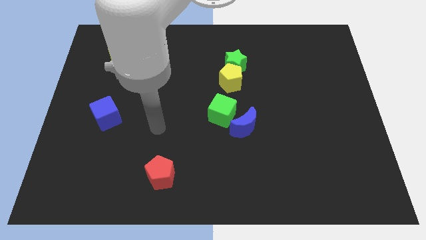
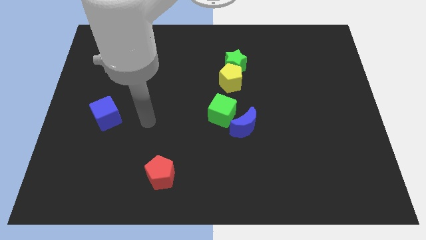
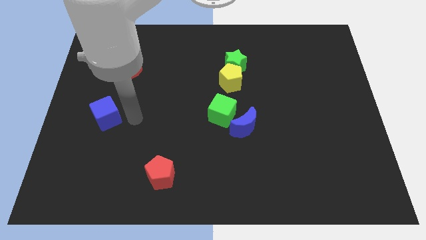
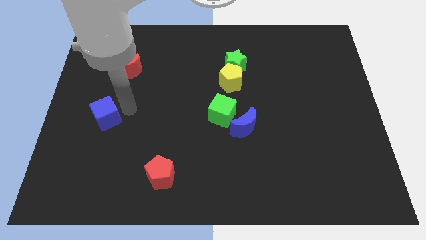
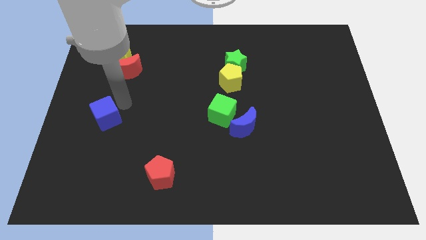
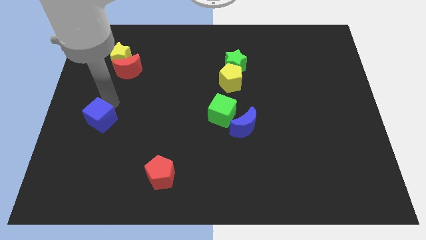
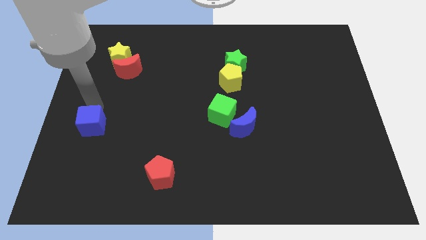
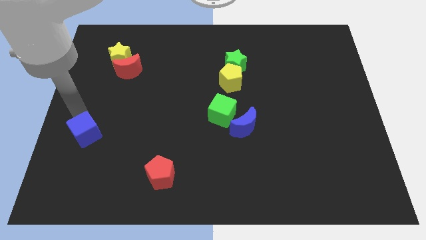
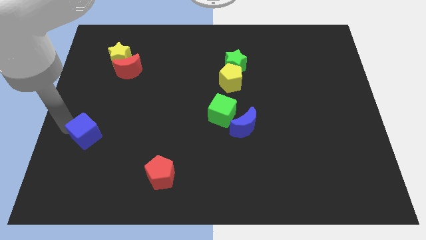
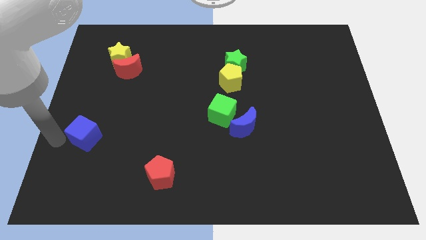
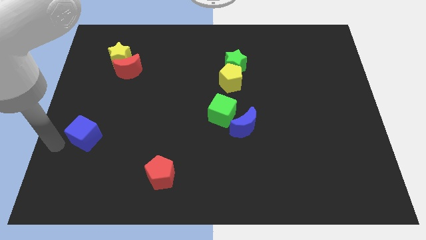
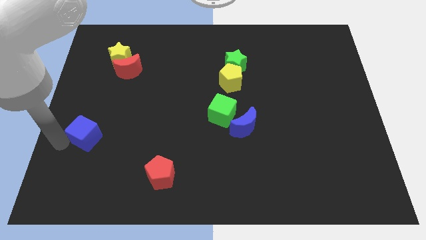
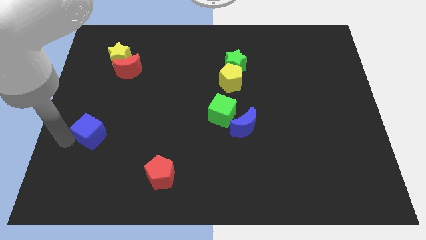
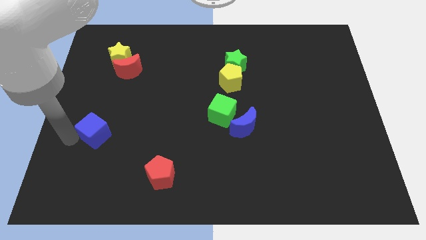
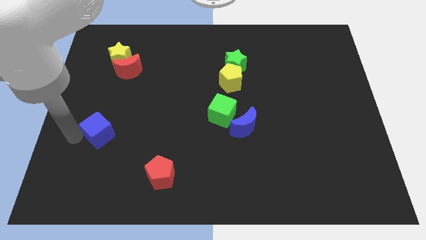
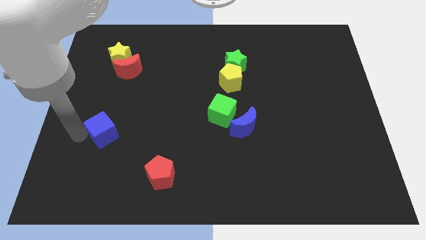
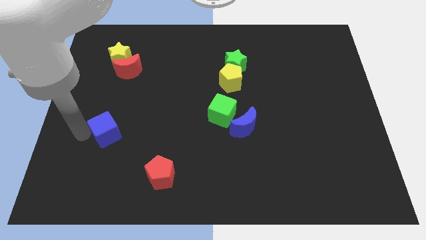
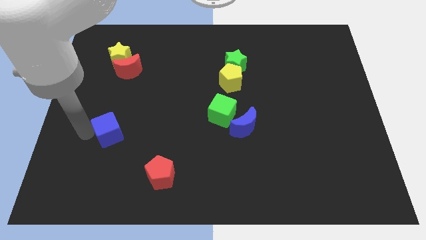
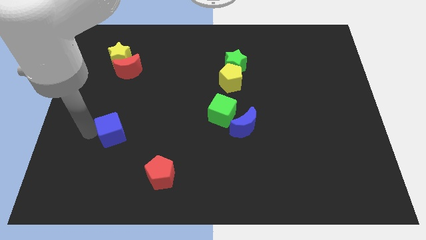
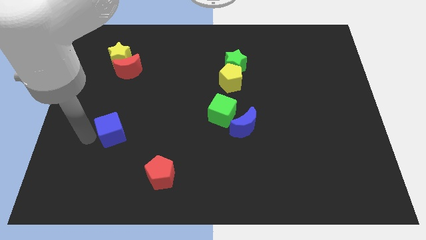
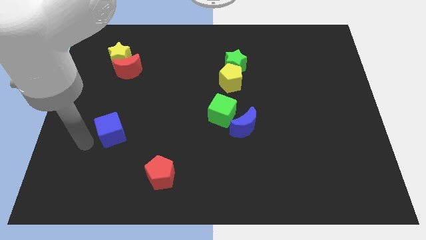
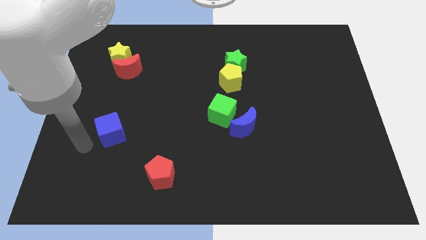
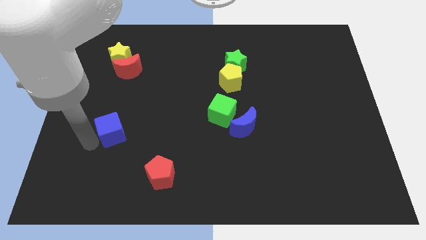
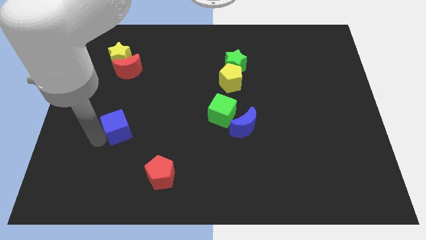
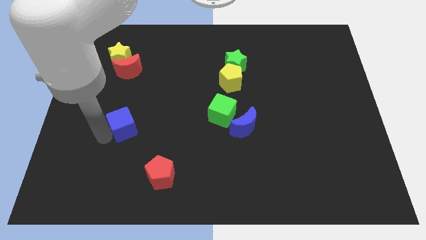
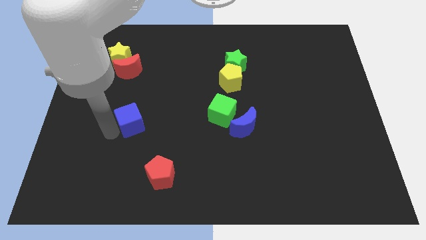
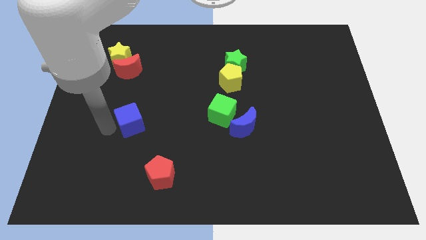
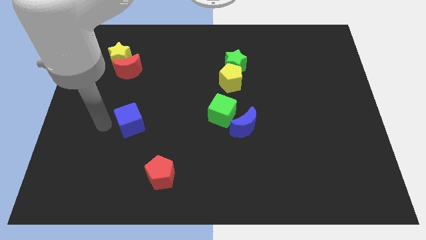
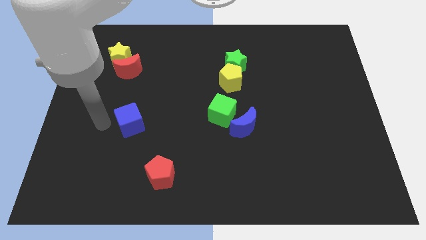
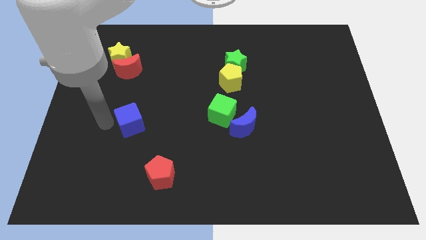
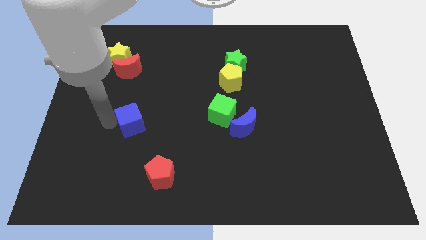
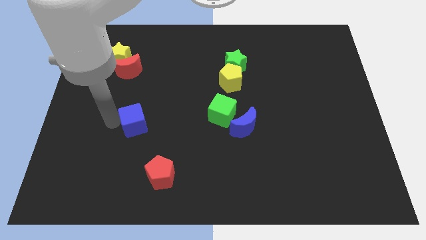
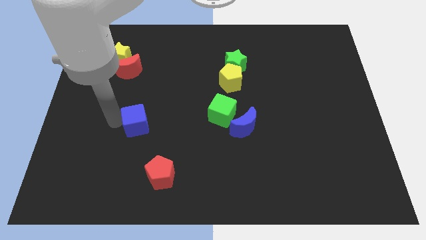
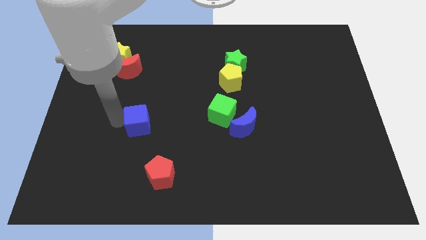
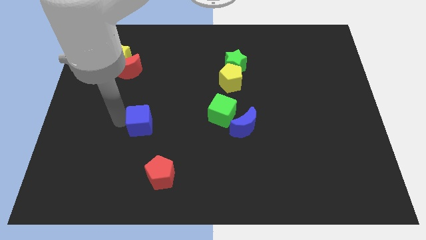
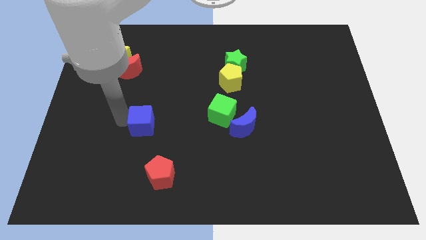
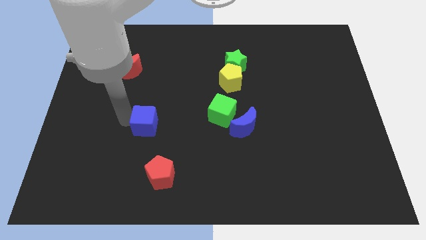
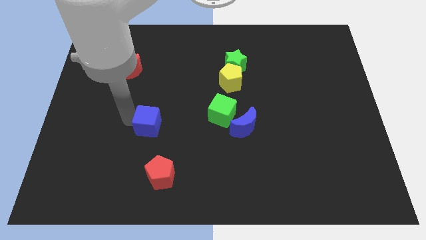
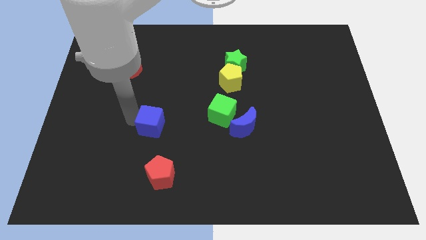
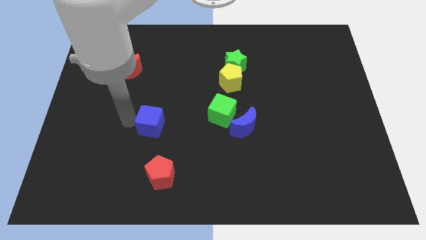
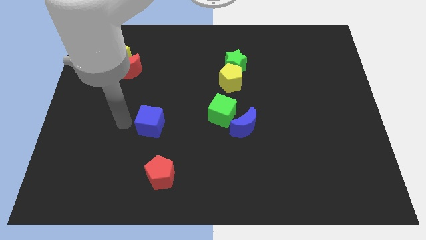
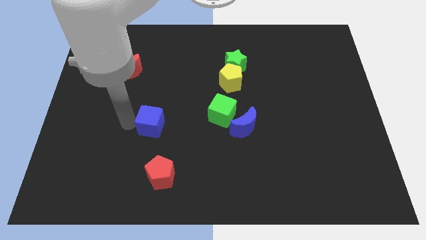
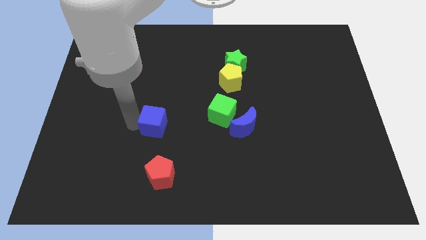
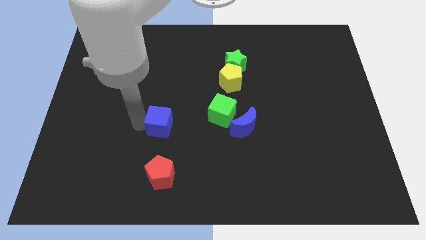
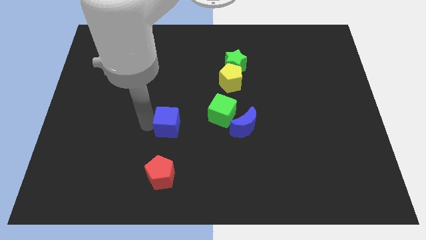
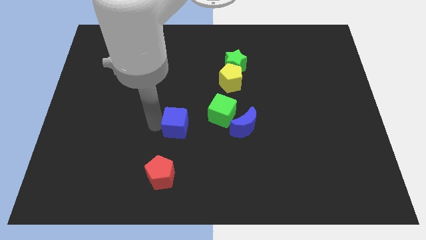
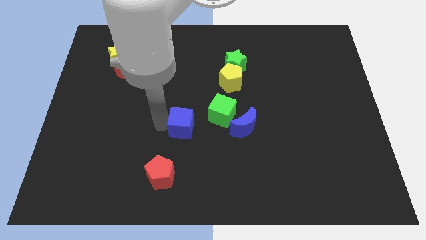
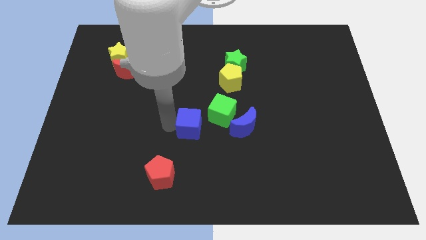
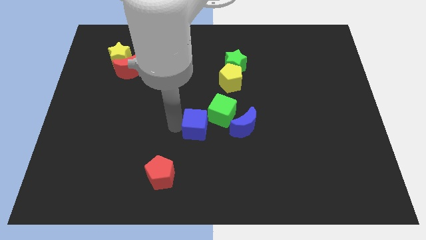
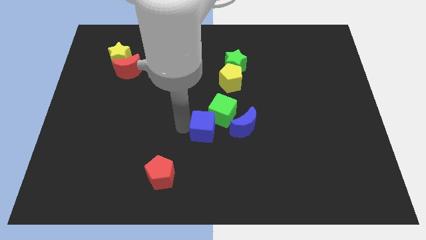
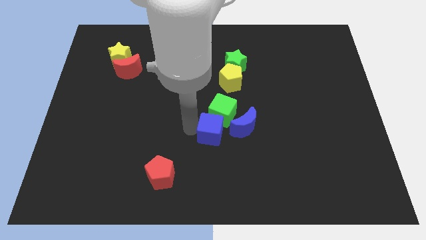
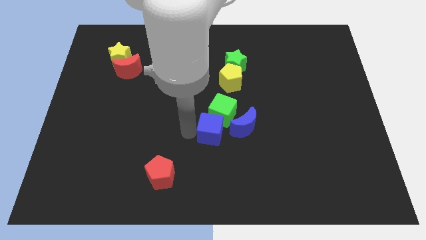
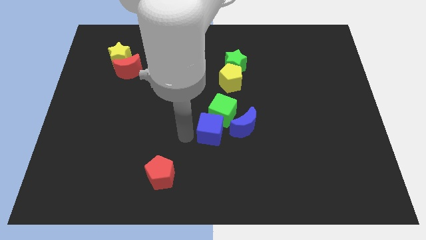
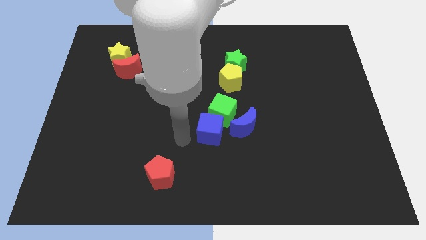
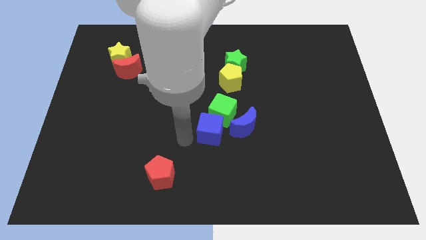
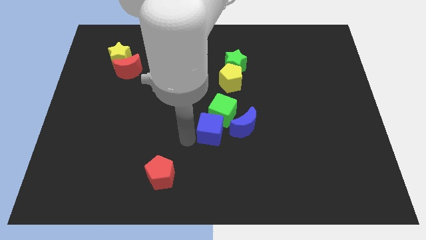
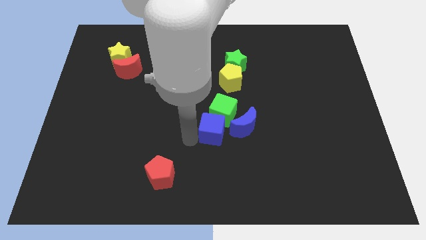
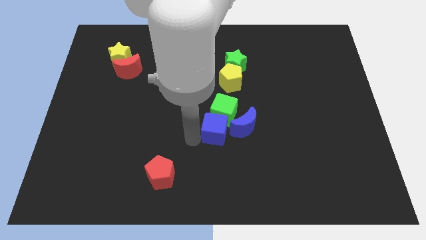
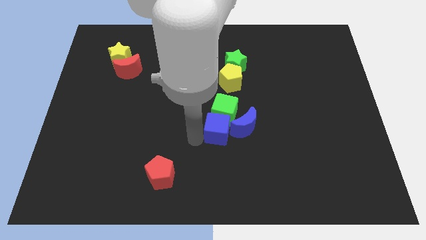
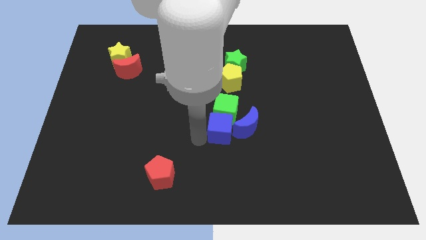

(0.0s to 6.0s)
put the blue cube to the blue moon

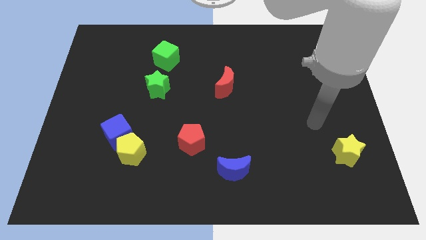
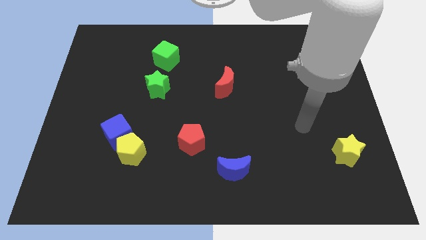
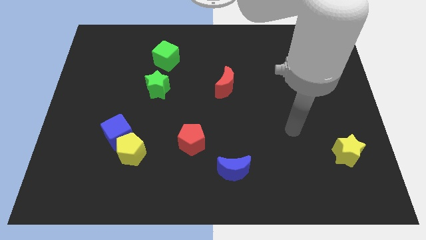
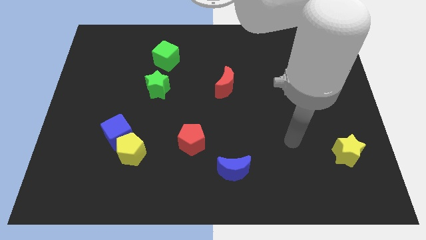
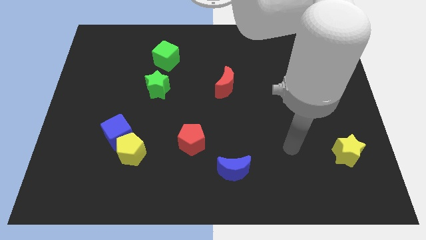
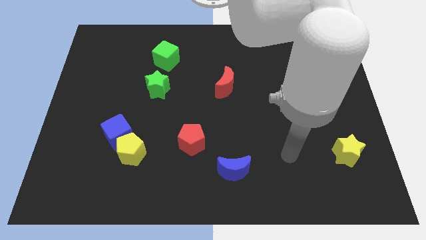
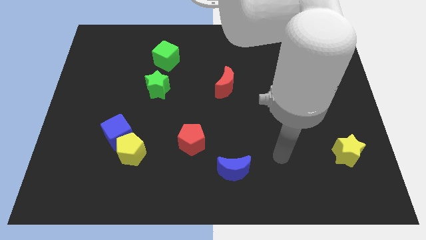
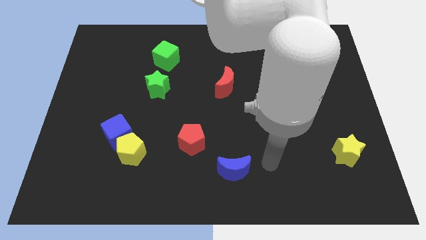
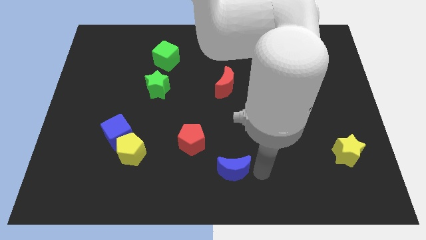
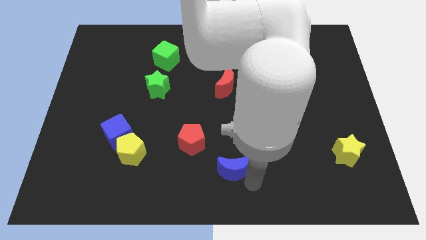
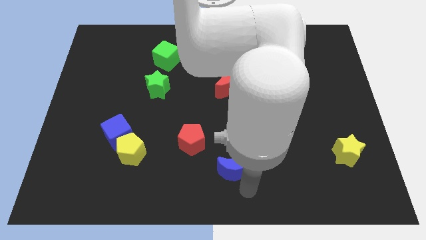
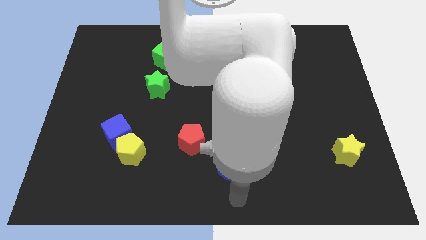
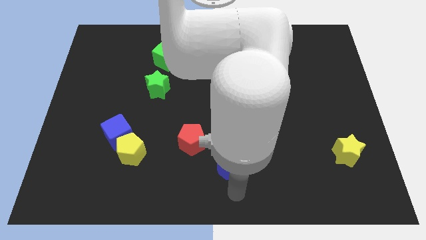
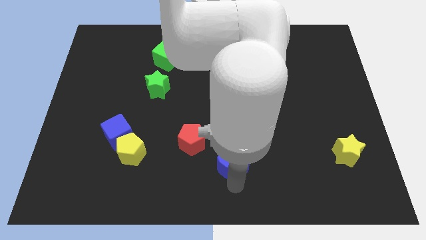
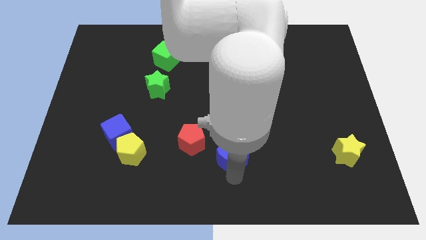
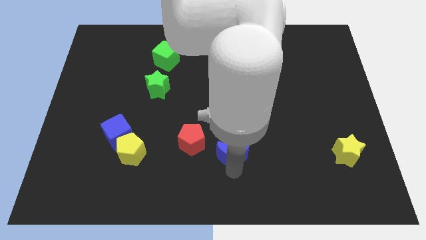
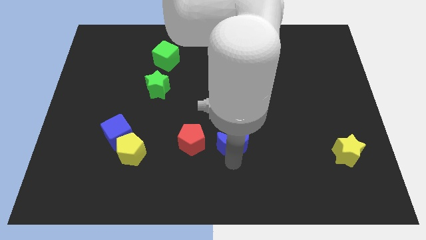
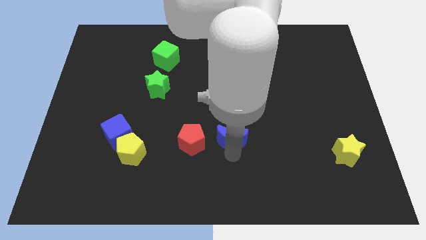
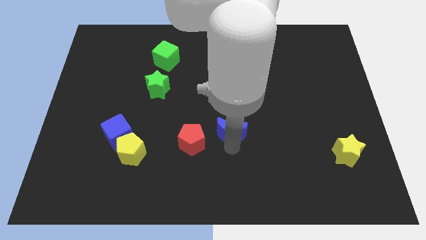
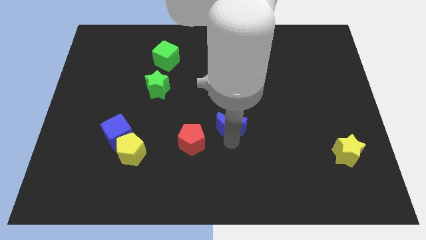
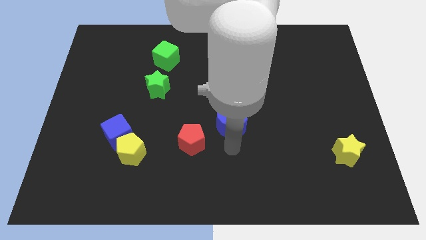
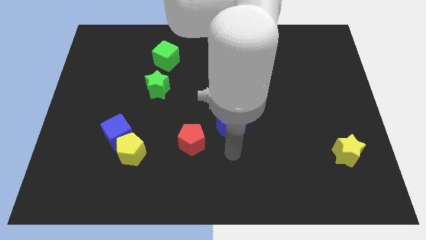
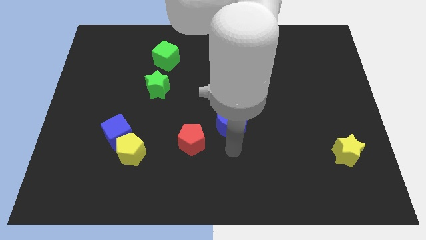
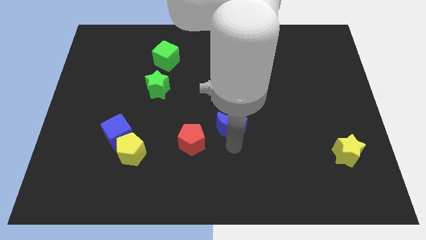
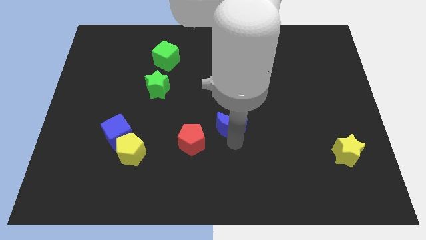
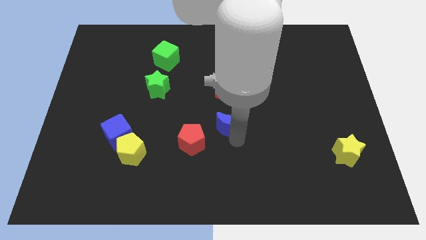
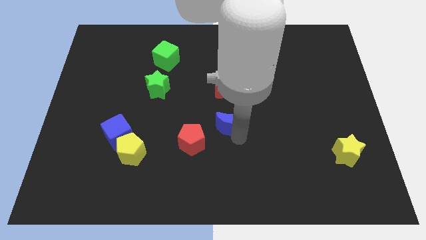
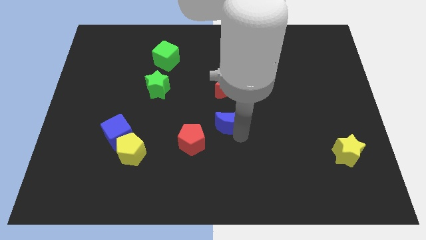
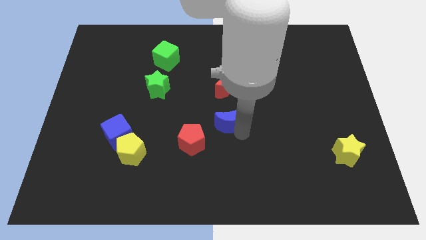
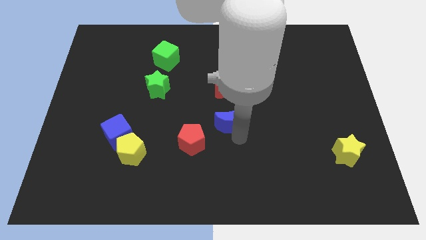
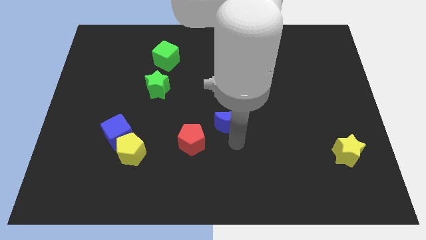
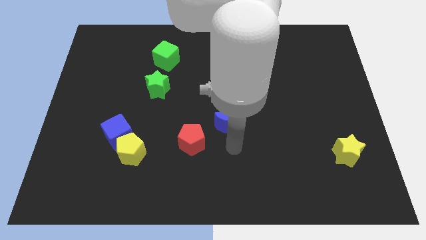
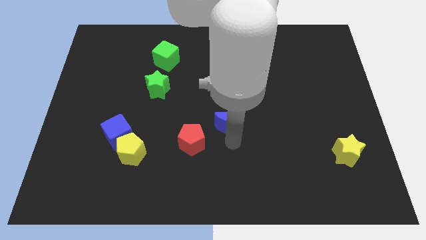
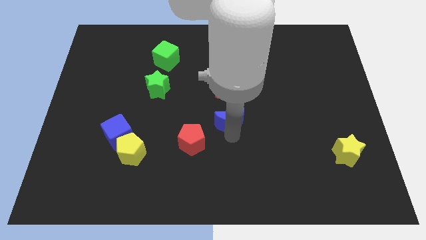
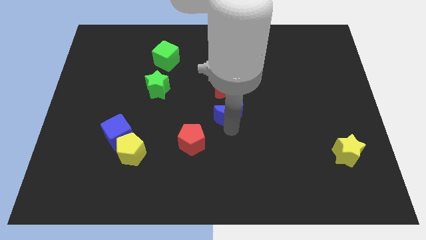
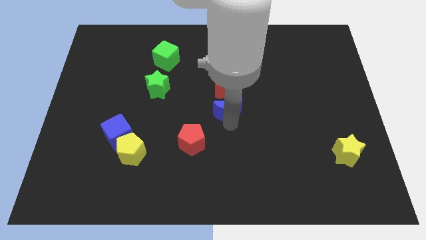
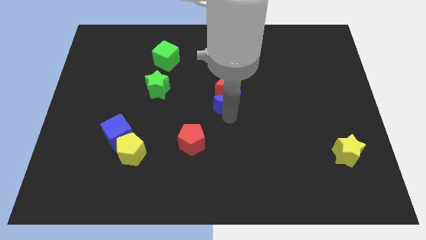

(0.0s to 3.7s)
push the blue moon to the red moon
